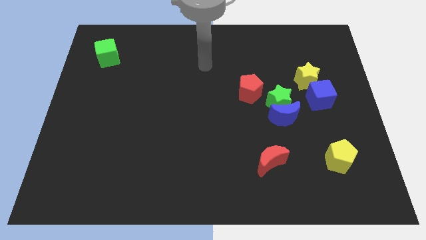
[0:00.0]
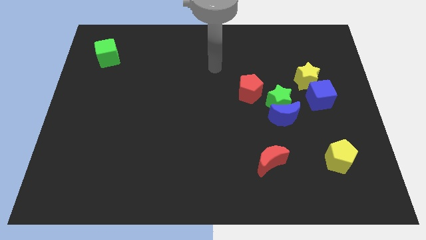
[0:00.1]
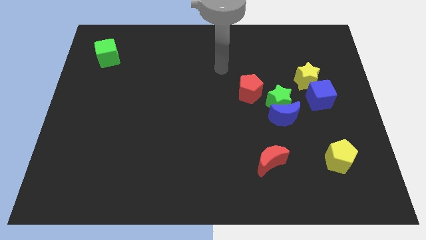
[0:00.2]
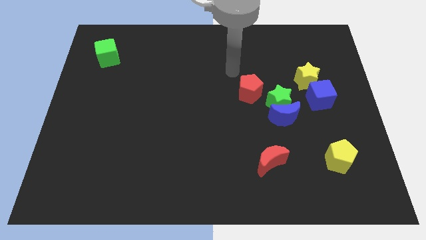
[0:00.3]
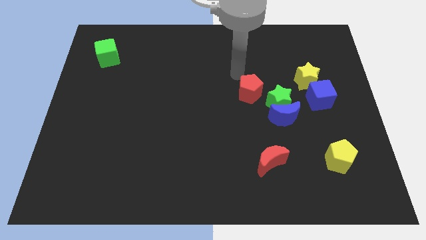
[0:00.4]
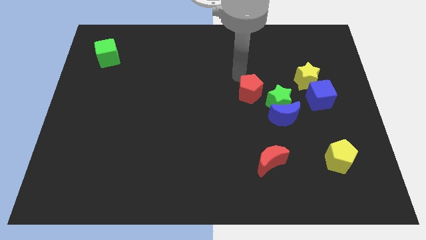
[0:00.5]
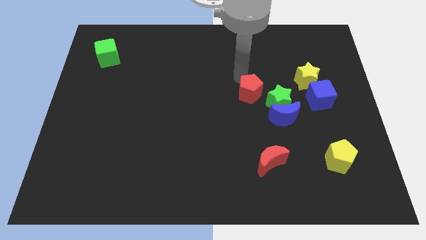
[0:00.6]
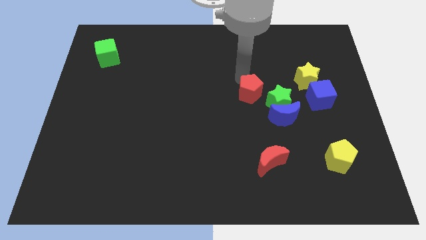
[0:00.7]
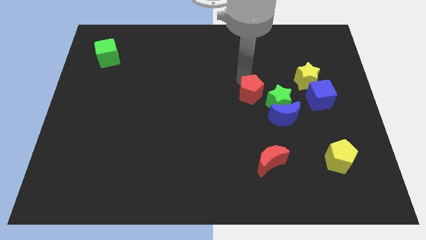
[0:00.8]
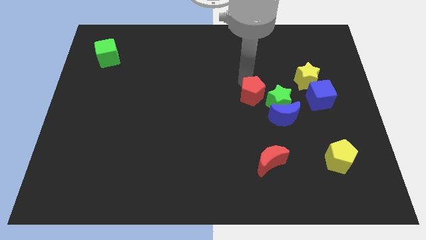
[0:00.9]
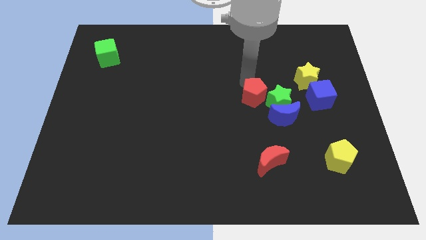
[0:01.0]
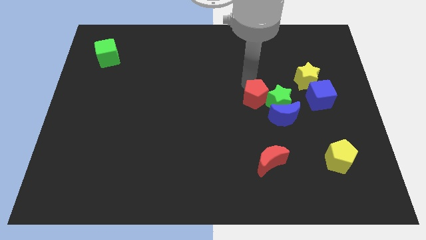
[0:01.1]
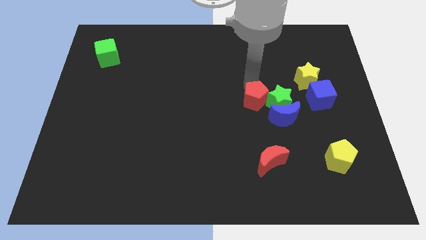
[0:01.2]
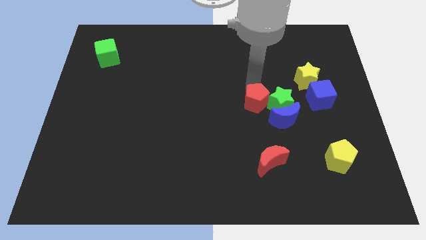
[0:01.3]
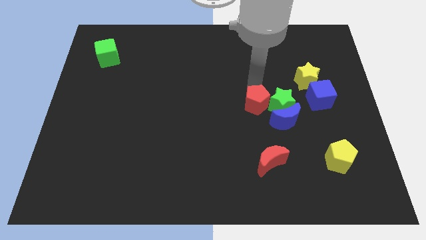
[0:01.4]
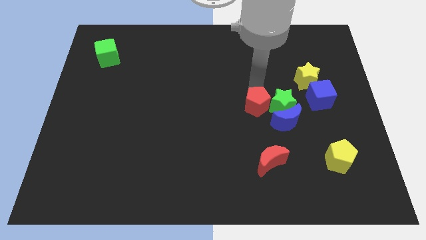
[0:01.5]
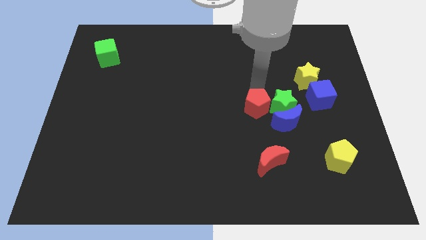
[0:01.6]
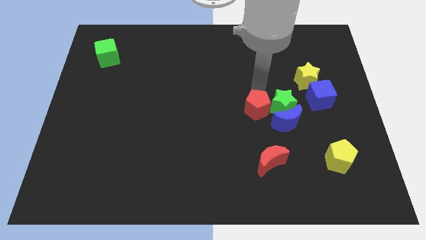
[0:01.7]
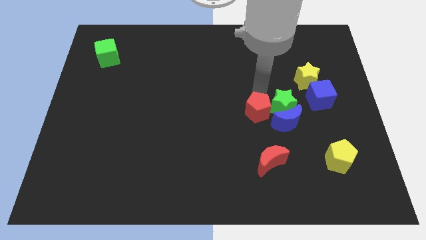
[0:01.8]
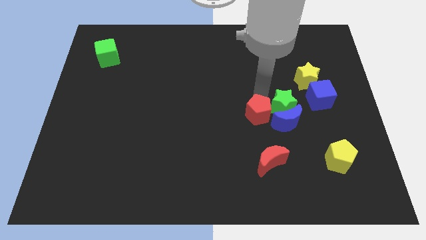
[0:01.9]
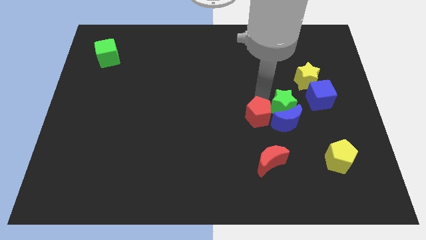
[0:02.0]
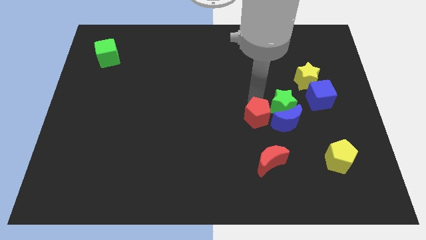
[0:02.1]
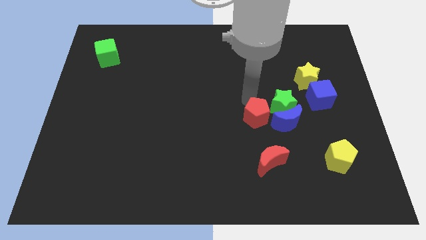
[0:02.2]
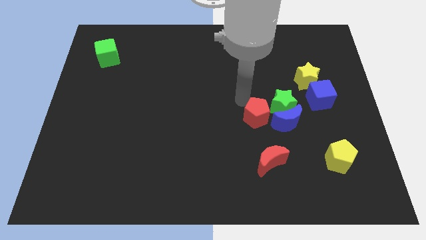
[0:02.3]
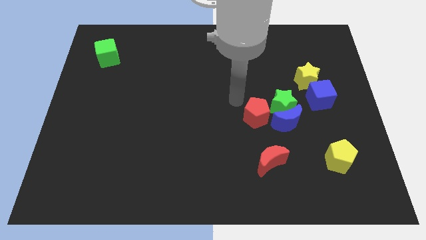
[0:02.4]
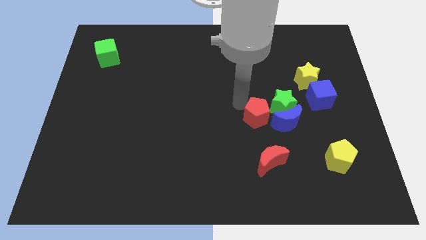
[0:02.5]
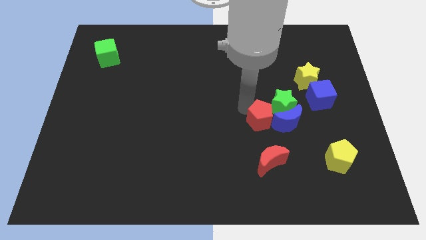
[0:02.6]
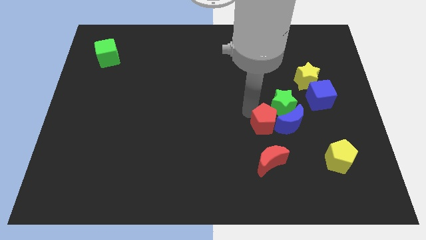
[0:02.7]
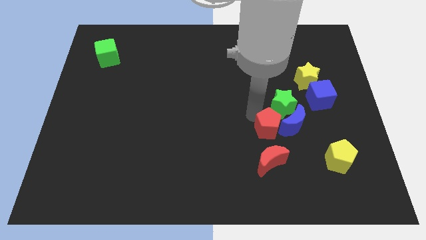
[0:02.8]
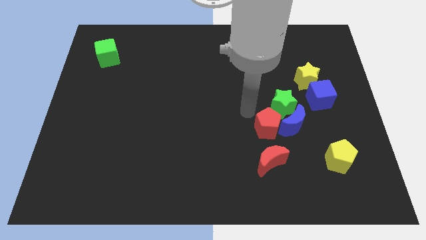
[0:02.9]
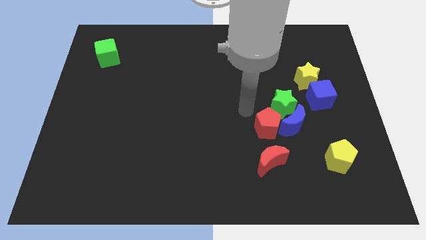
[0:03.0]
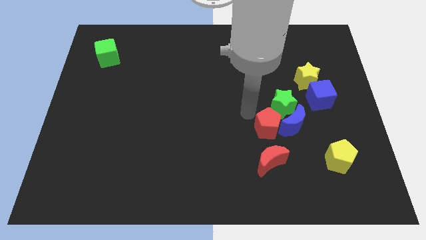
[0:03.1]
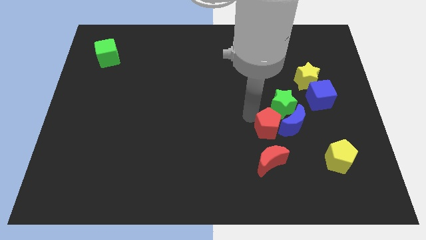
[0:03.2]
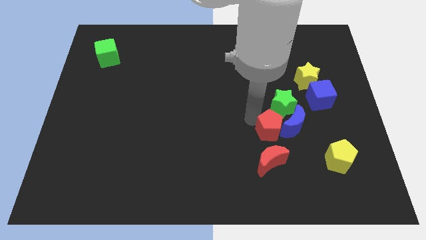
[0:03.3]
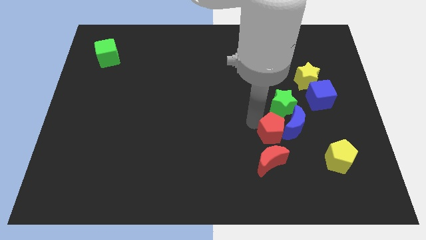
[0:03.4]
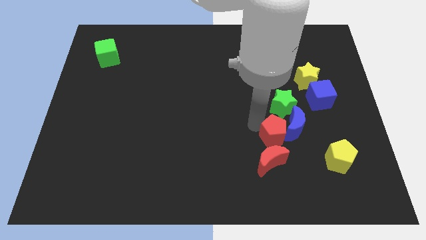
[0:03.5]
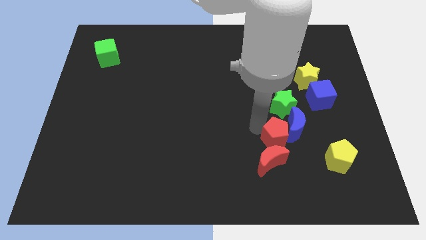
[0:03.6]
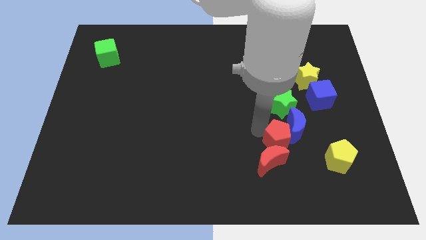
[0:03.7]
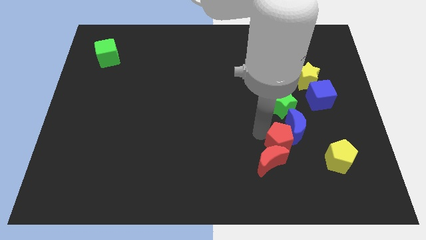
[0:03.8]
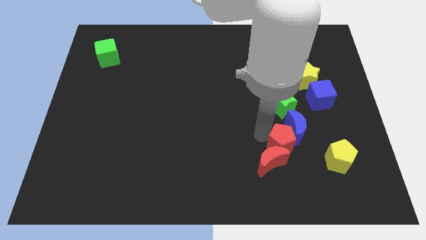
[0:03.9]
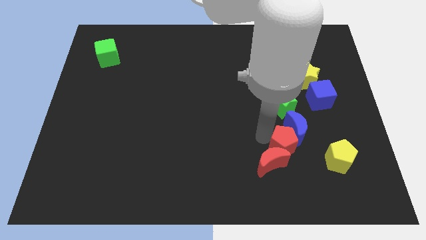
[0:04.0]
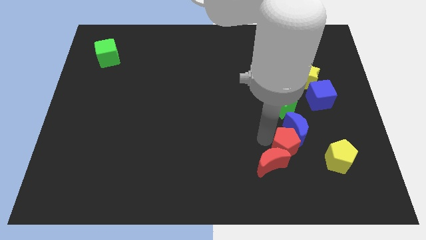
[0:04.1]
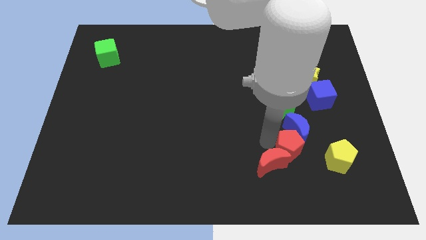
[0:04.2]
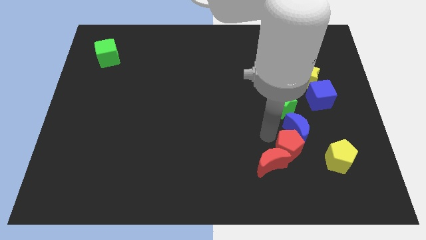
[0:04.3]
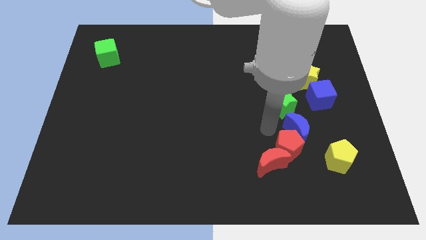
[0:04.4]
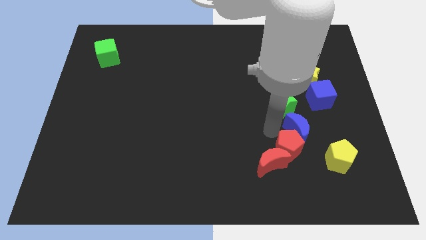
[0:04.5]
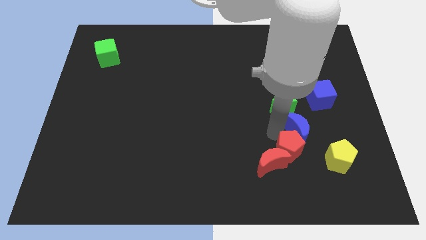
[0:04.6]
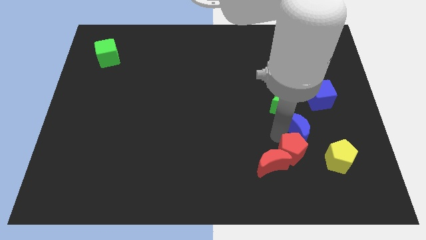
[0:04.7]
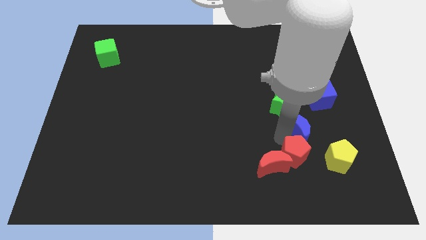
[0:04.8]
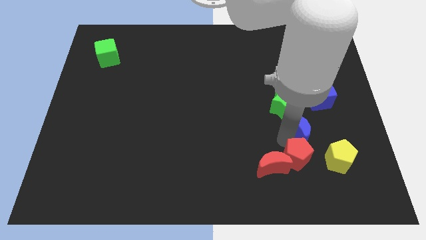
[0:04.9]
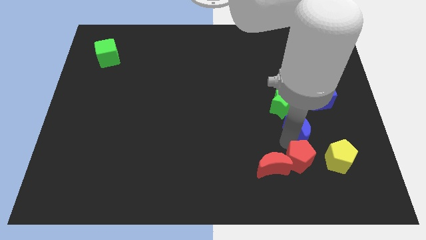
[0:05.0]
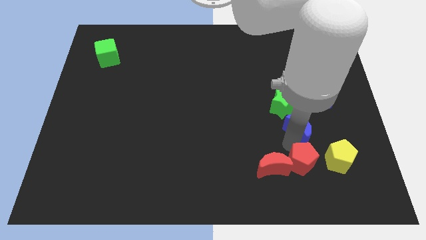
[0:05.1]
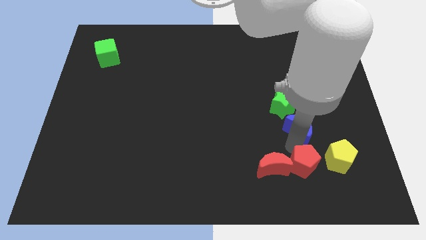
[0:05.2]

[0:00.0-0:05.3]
move the red pentagon to the bottom left side of the yellow pentagon
